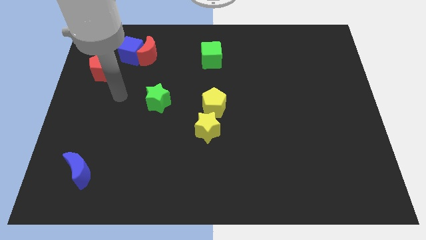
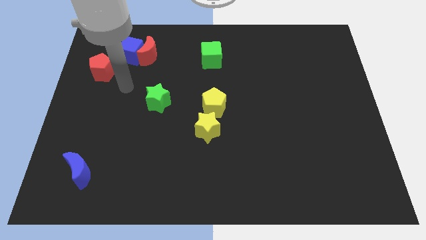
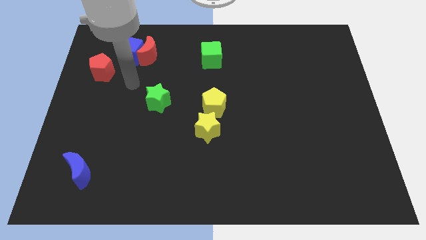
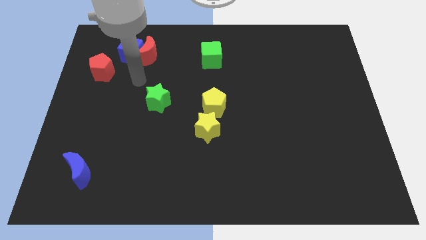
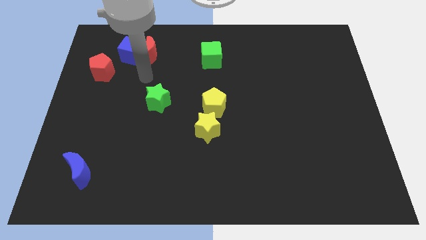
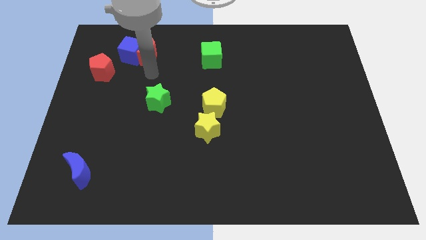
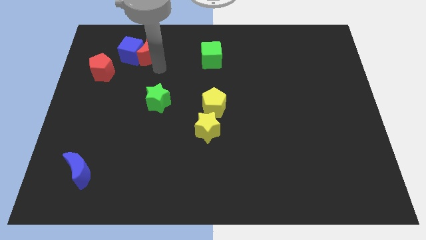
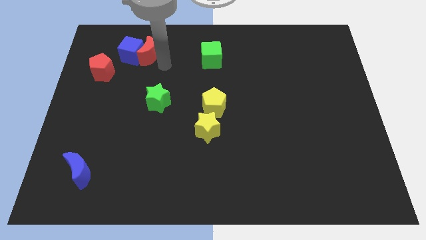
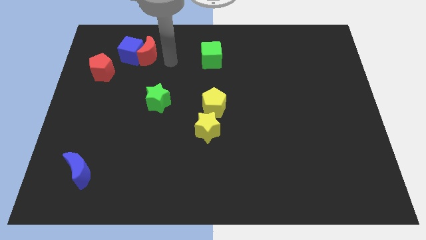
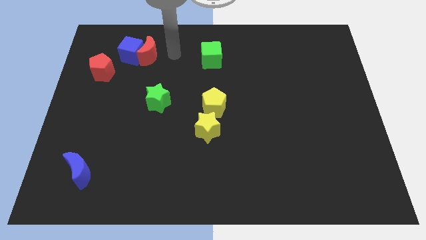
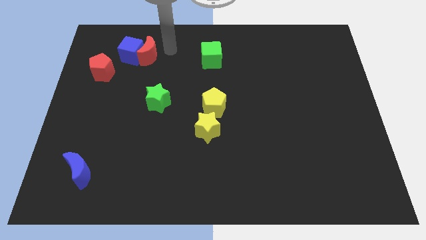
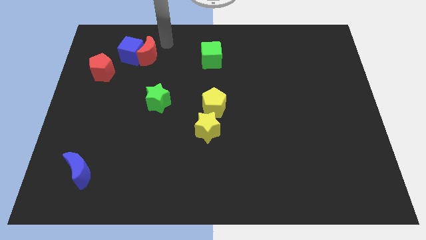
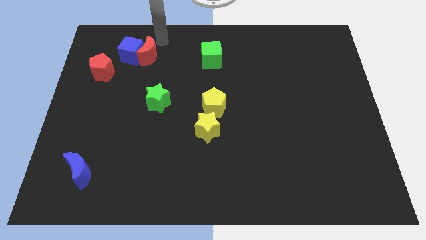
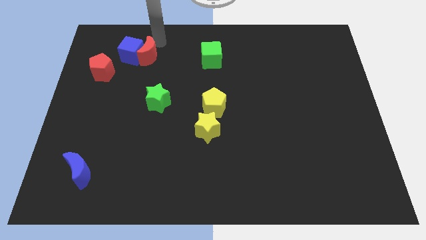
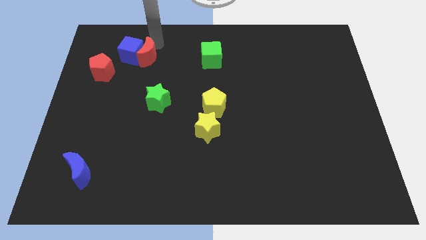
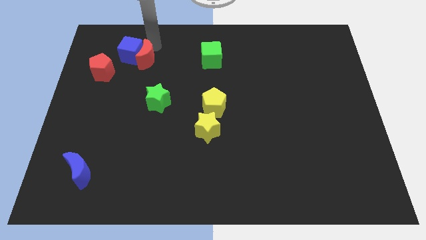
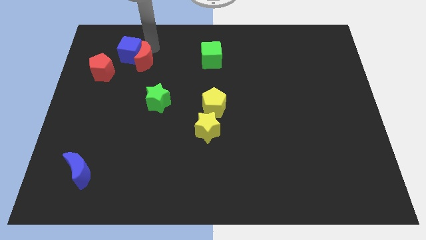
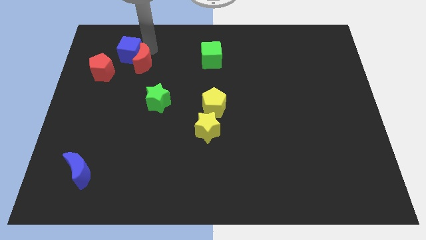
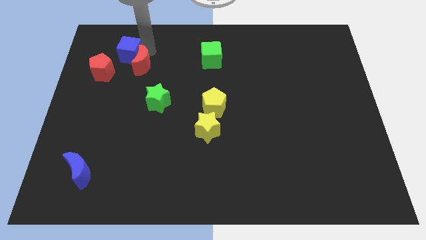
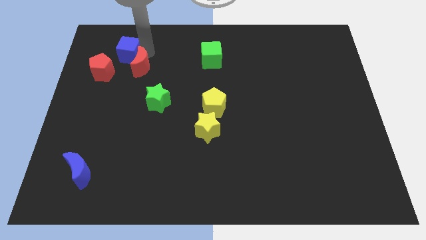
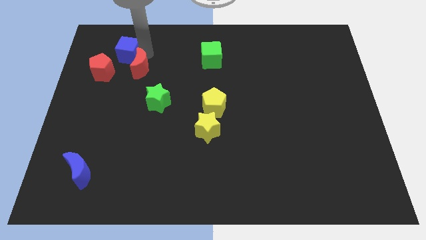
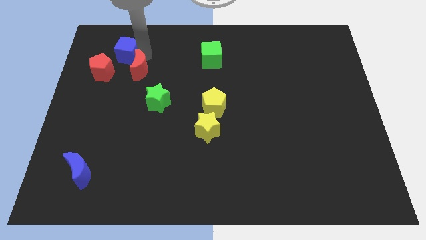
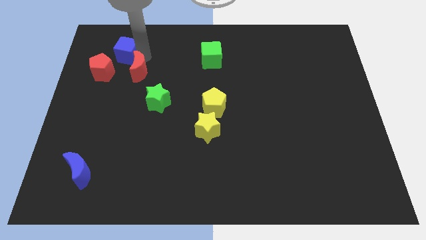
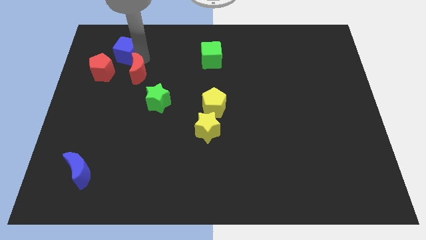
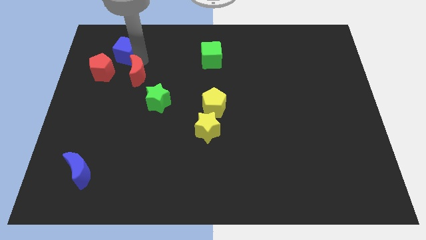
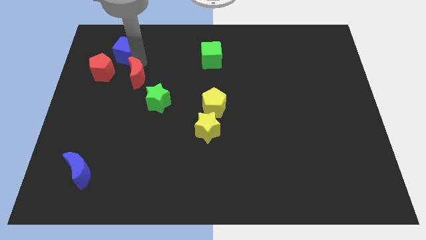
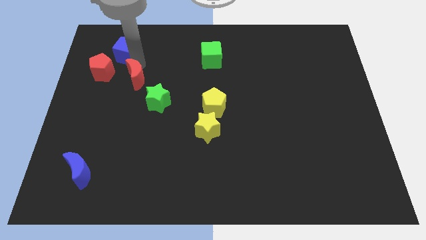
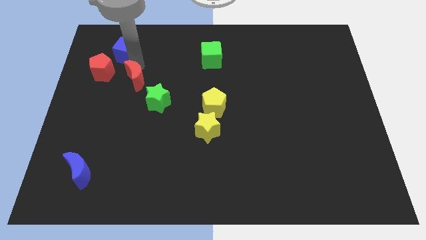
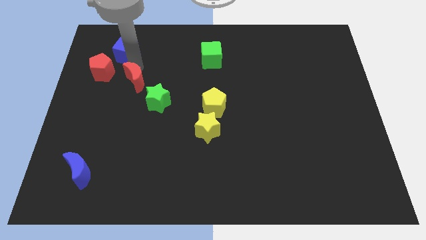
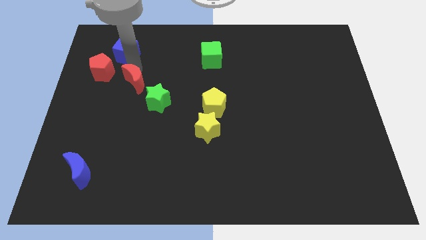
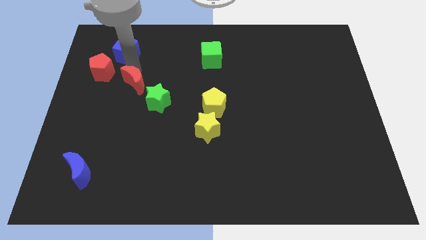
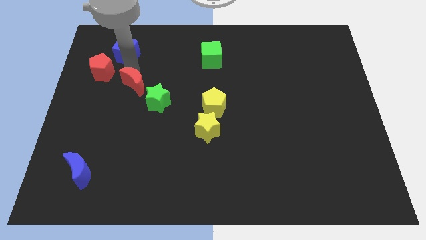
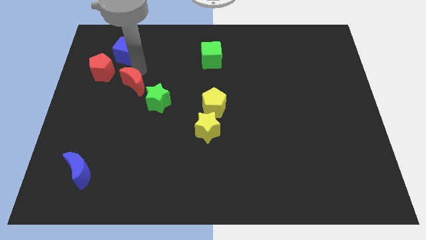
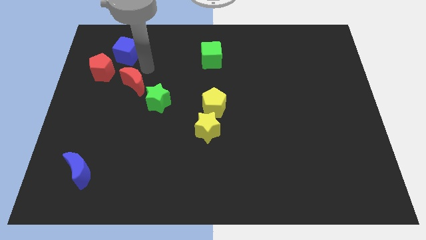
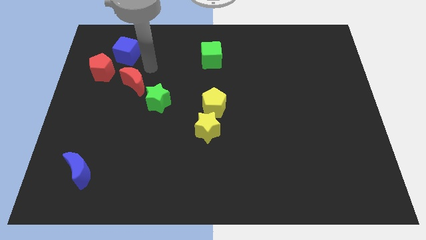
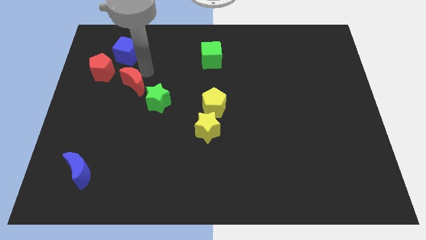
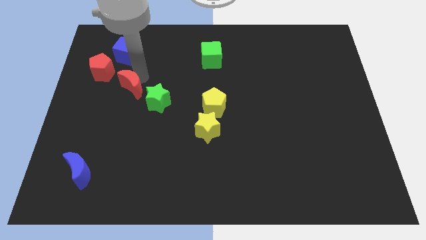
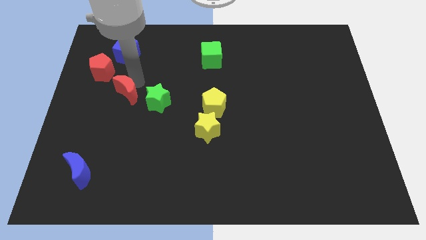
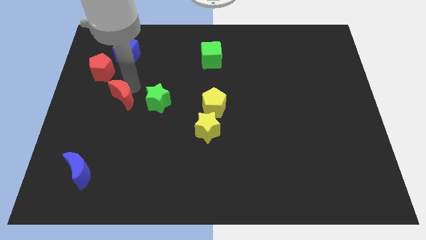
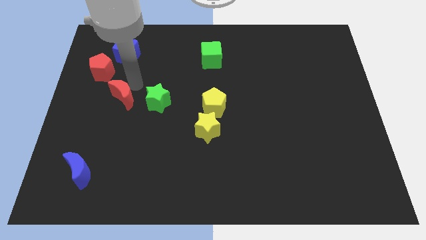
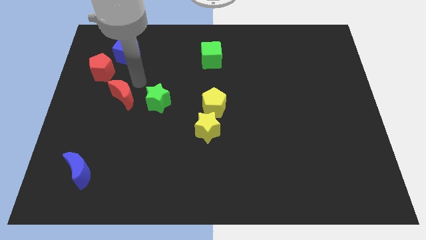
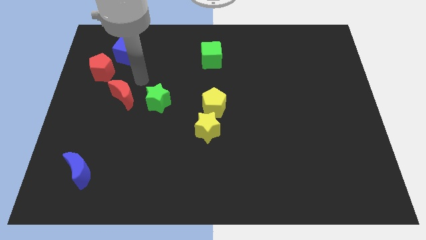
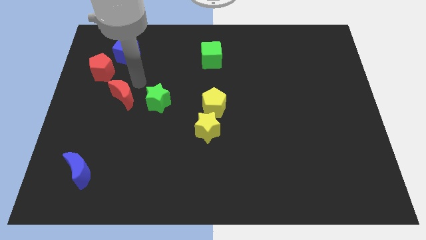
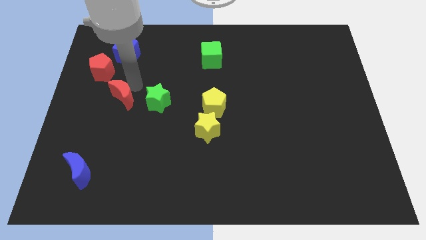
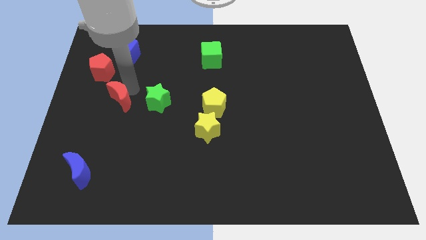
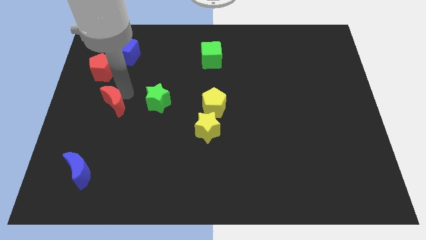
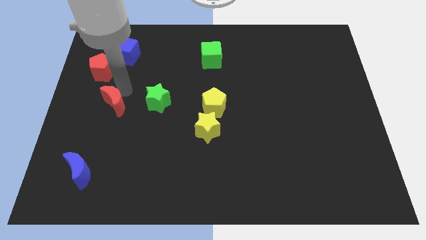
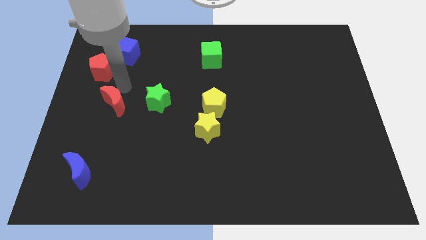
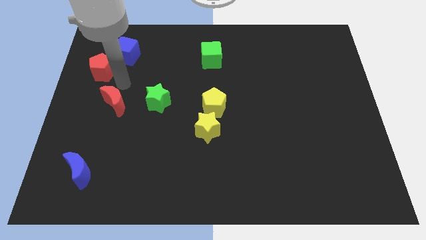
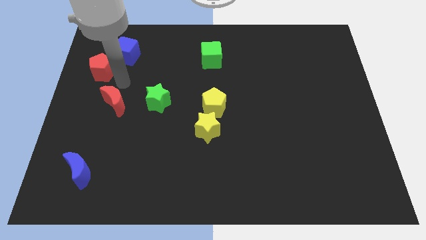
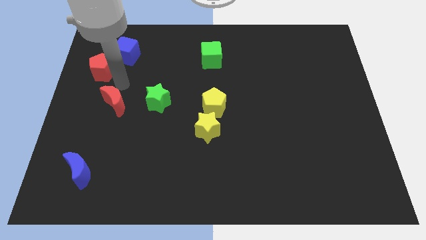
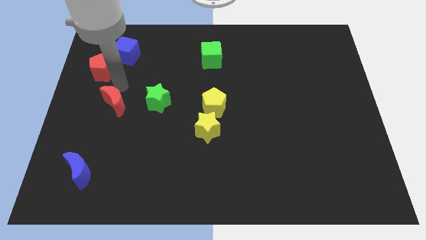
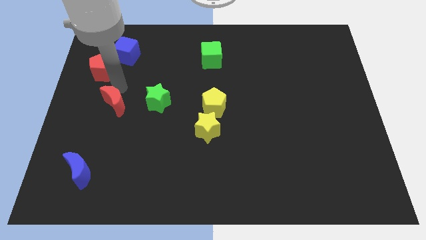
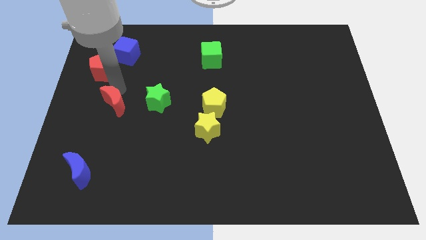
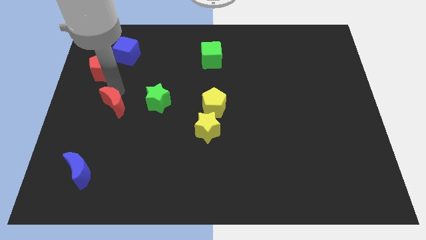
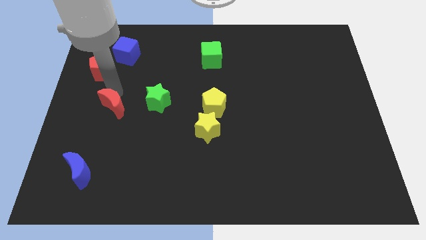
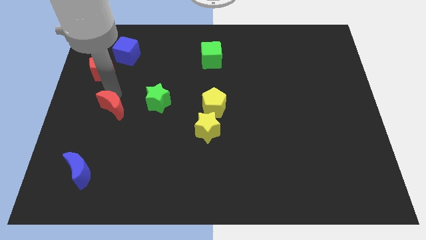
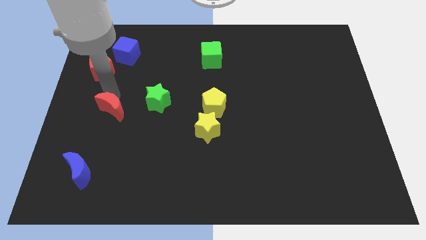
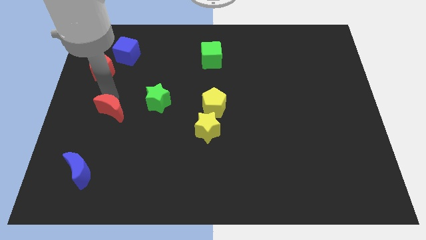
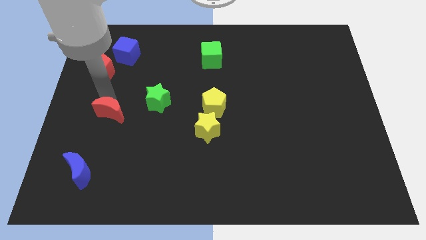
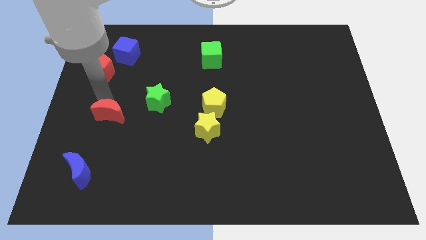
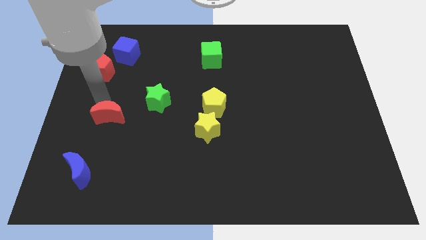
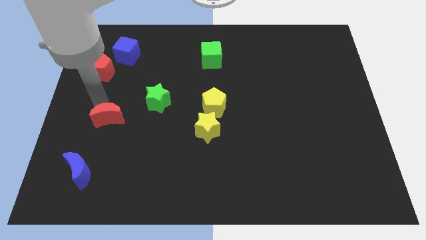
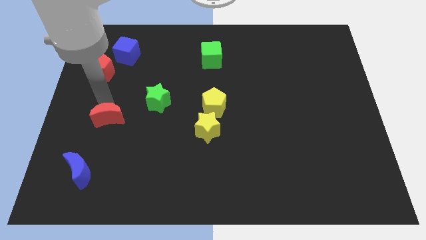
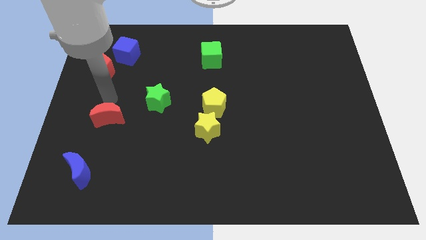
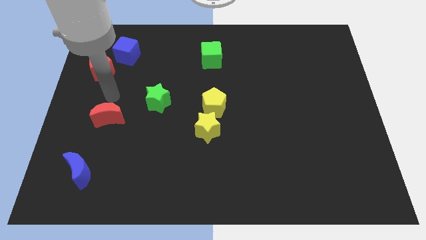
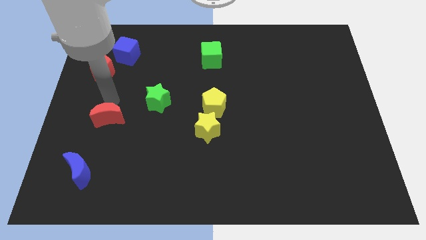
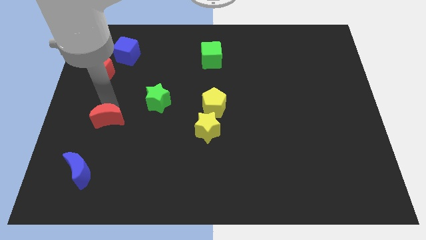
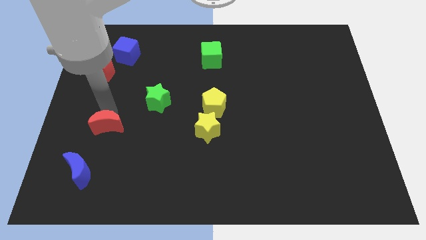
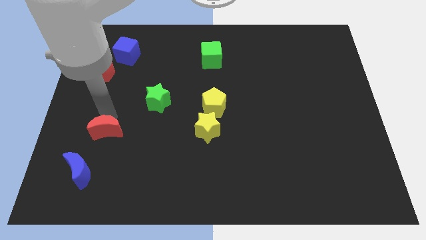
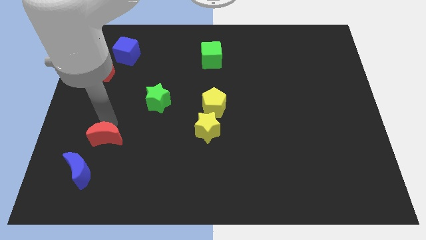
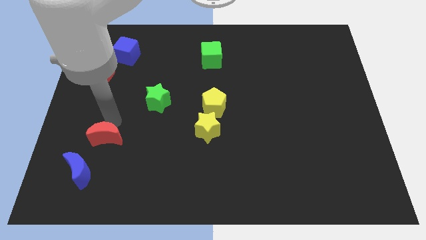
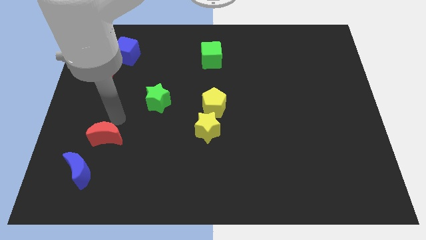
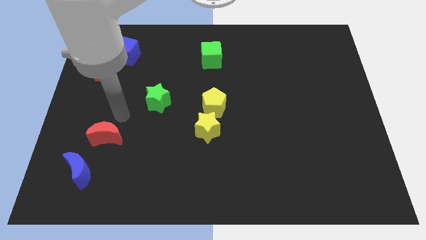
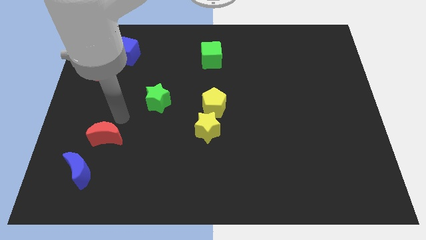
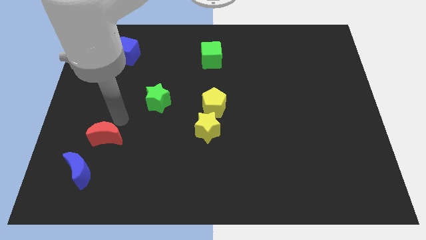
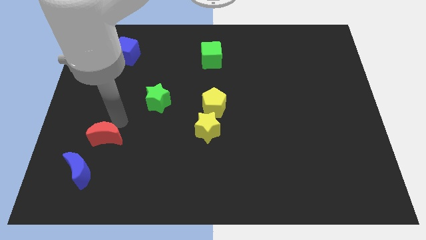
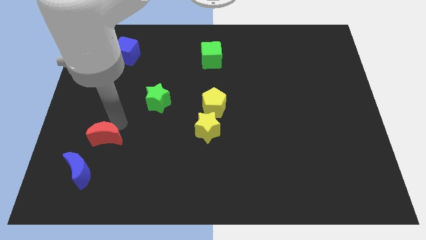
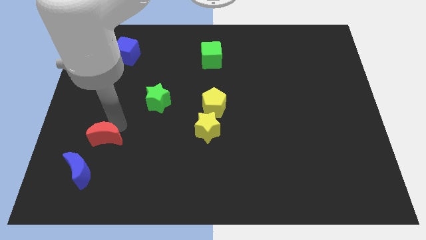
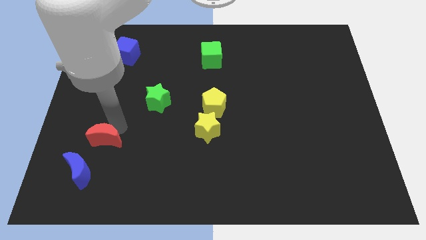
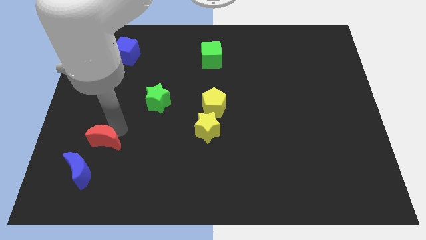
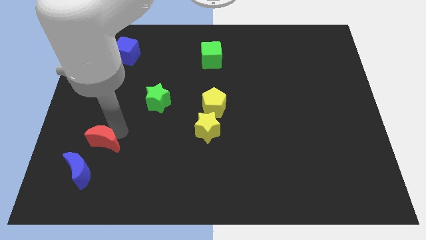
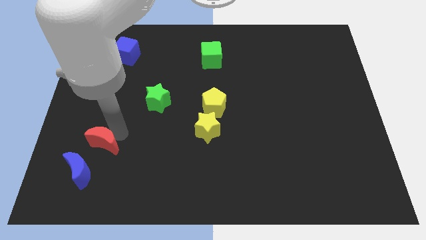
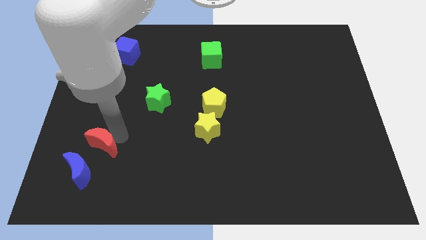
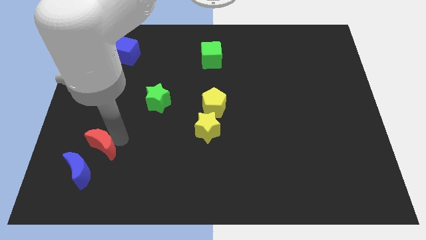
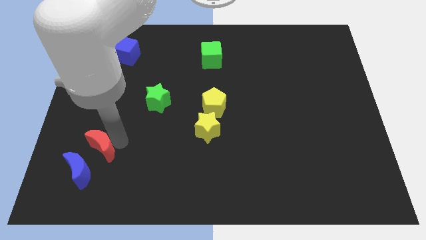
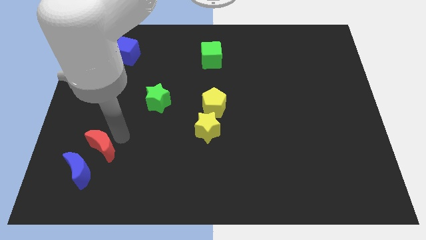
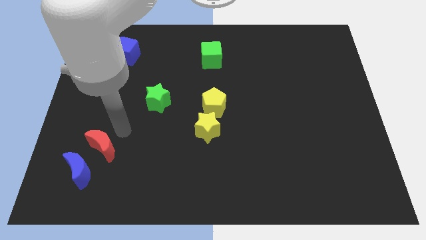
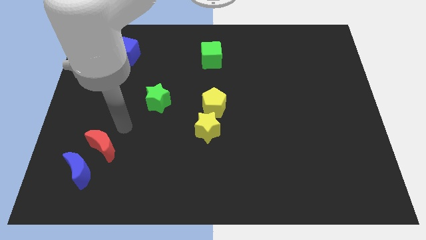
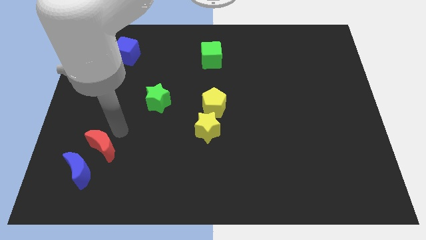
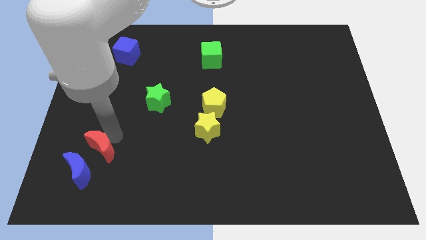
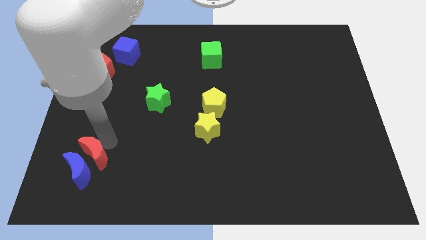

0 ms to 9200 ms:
move the red moon next to the blue moon
